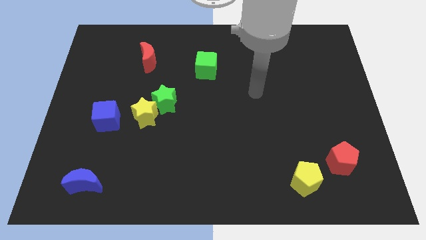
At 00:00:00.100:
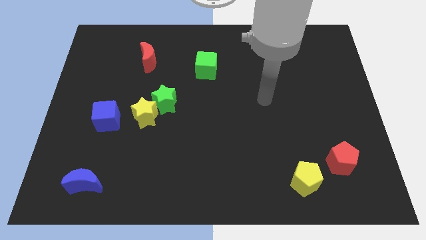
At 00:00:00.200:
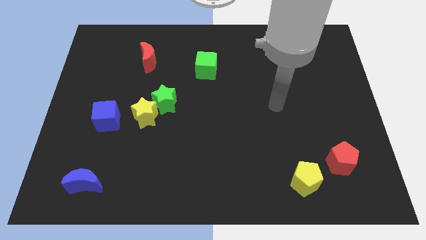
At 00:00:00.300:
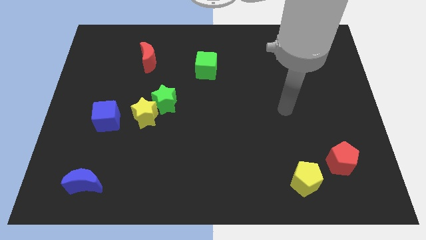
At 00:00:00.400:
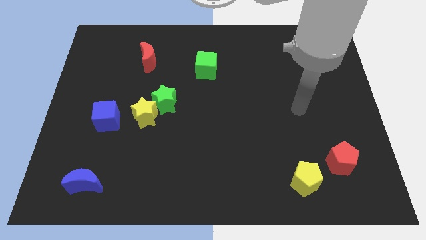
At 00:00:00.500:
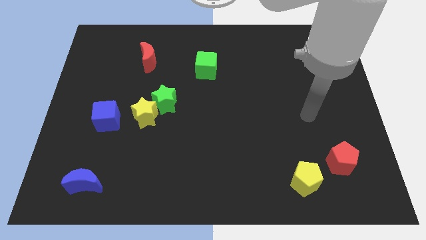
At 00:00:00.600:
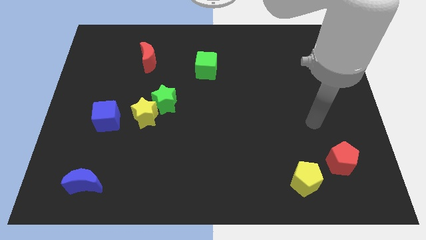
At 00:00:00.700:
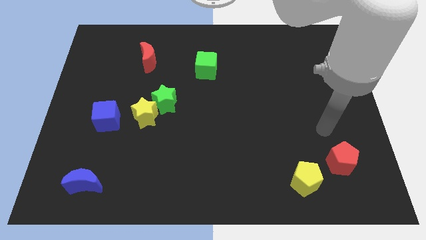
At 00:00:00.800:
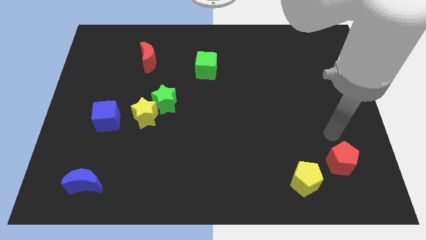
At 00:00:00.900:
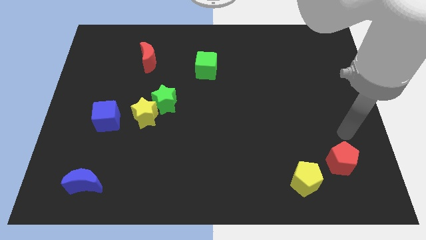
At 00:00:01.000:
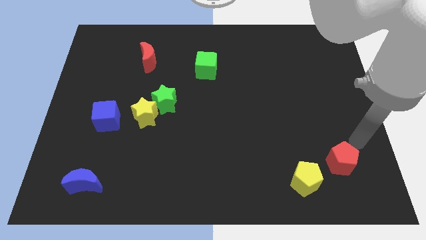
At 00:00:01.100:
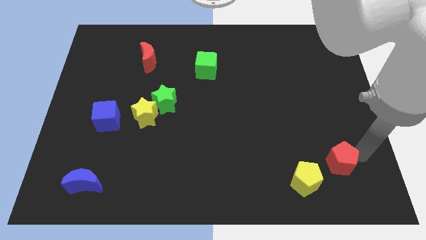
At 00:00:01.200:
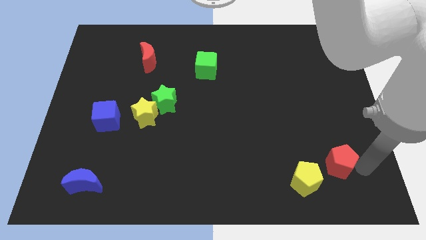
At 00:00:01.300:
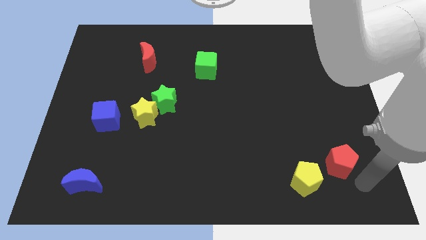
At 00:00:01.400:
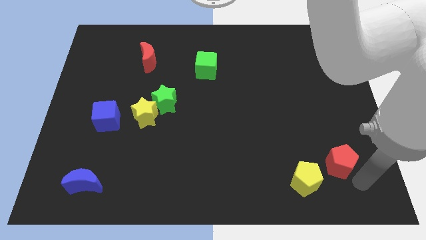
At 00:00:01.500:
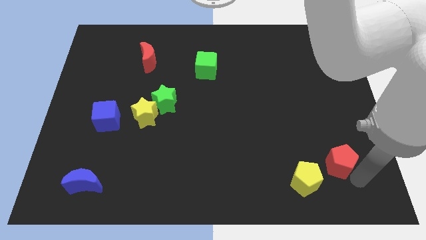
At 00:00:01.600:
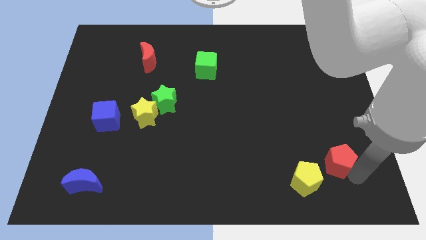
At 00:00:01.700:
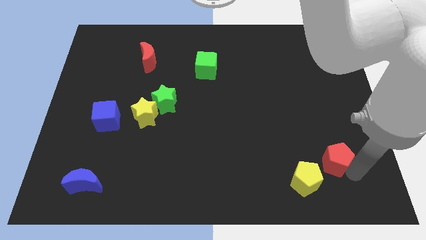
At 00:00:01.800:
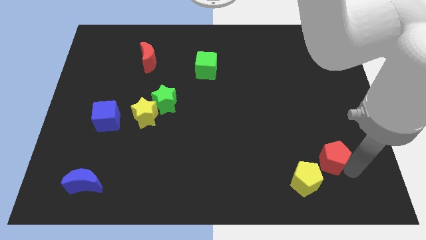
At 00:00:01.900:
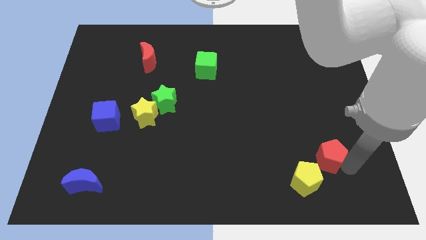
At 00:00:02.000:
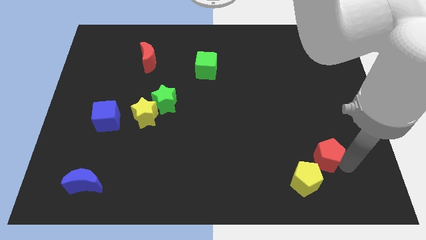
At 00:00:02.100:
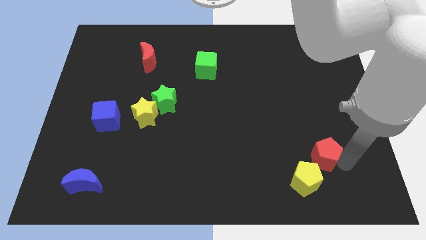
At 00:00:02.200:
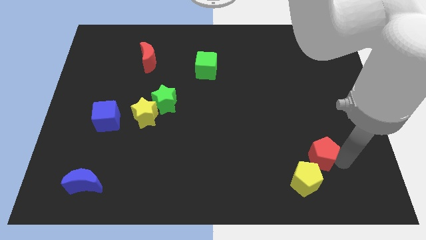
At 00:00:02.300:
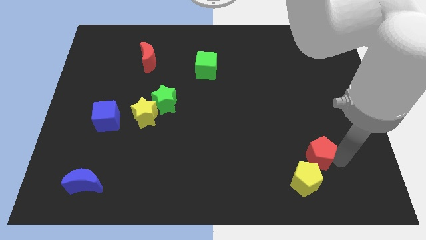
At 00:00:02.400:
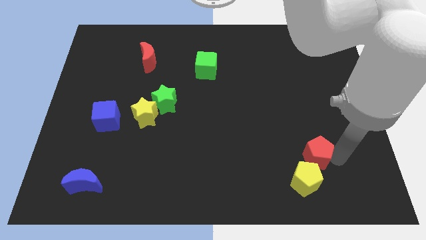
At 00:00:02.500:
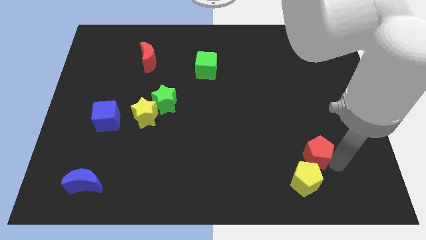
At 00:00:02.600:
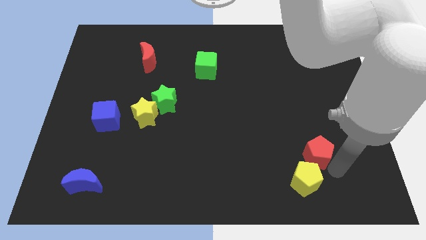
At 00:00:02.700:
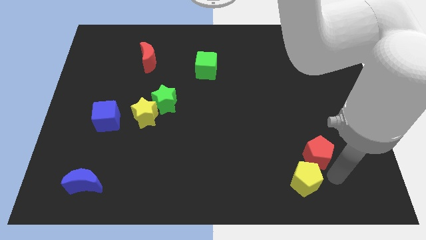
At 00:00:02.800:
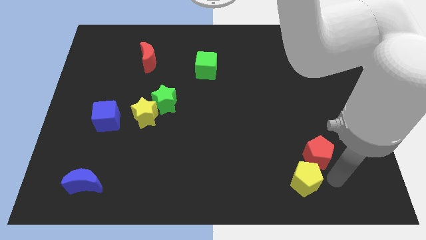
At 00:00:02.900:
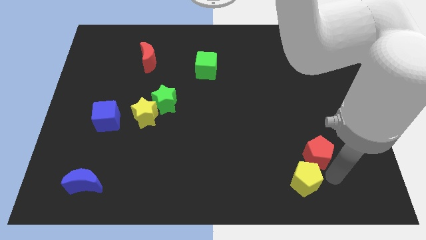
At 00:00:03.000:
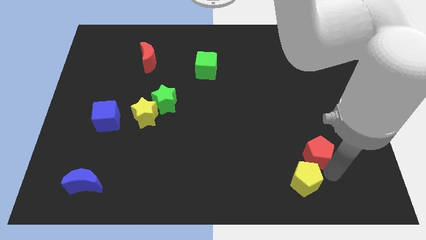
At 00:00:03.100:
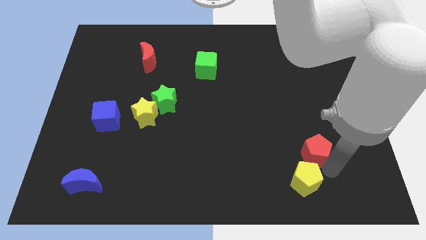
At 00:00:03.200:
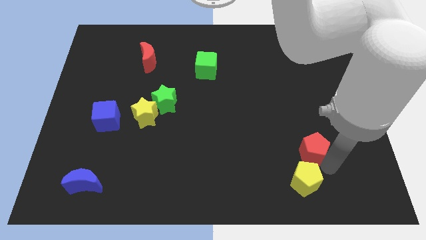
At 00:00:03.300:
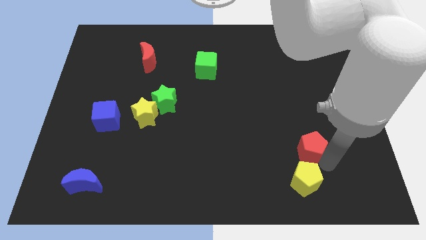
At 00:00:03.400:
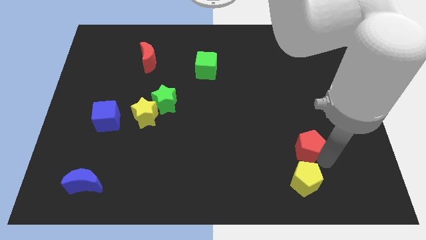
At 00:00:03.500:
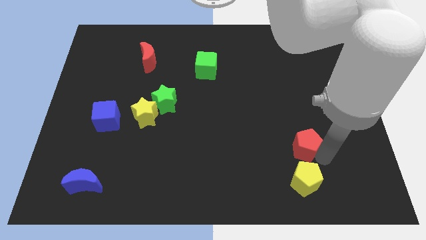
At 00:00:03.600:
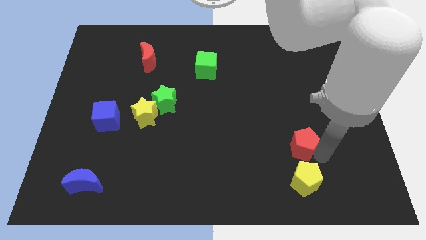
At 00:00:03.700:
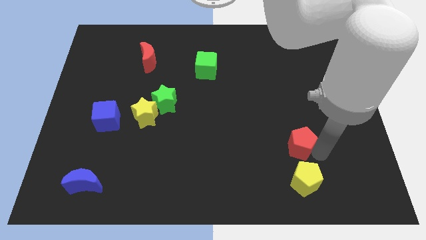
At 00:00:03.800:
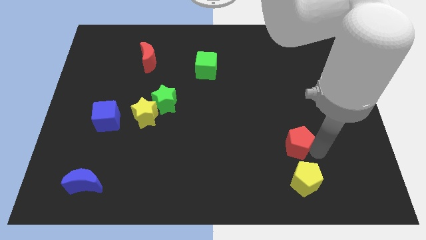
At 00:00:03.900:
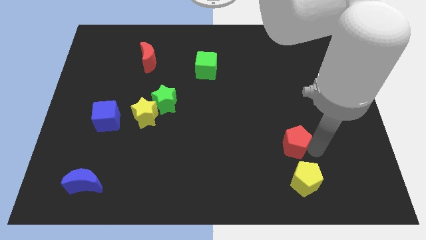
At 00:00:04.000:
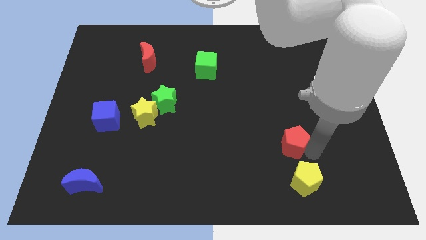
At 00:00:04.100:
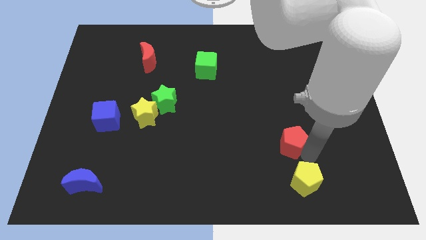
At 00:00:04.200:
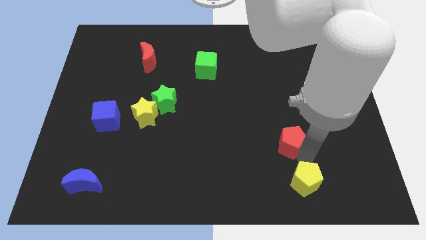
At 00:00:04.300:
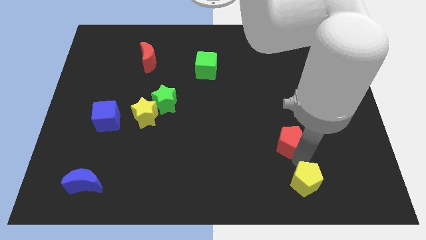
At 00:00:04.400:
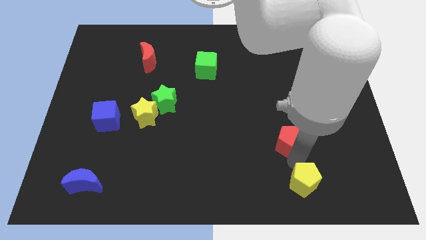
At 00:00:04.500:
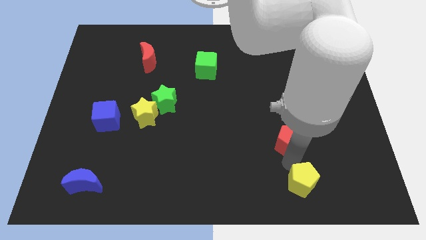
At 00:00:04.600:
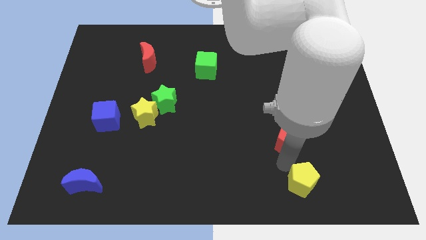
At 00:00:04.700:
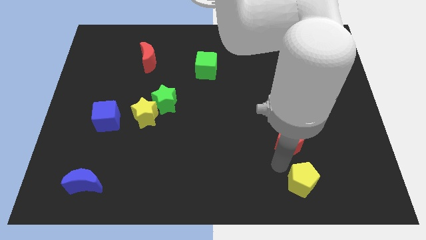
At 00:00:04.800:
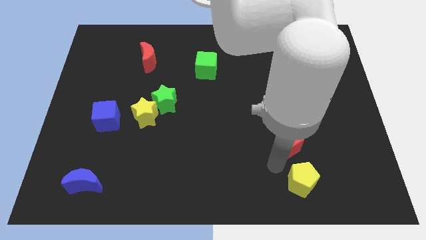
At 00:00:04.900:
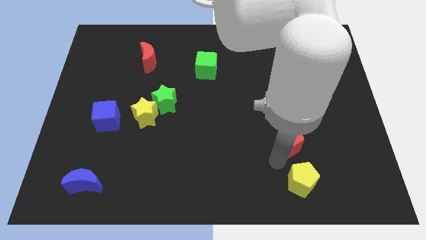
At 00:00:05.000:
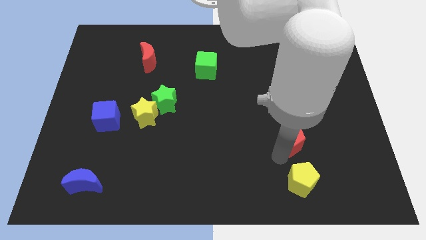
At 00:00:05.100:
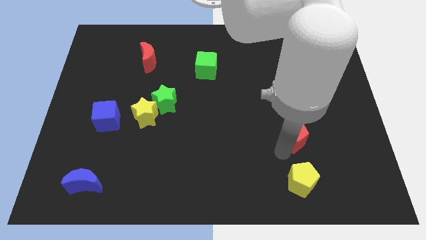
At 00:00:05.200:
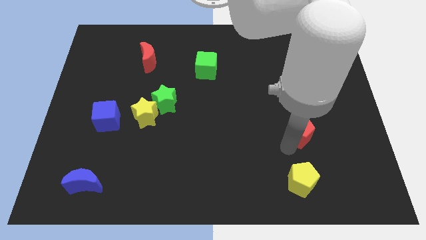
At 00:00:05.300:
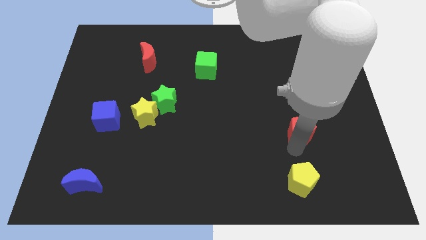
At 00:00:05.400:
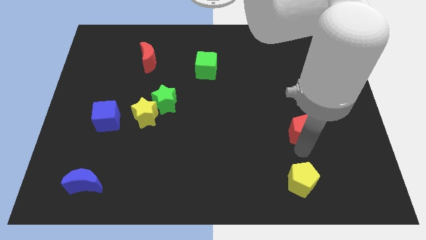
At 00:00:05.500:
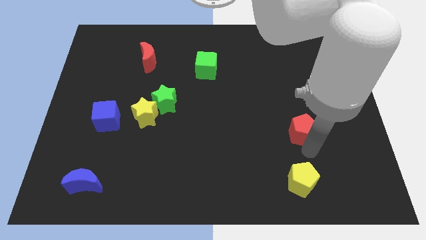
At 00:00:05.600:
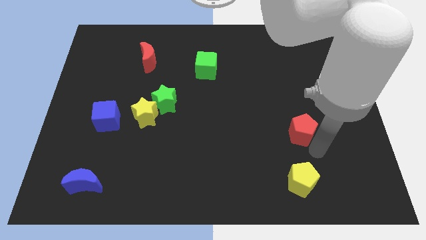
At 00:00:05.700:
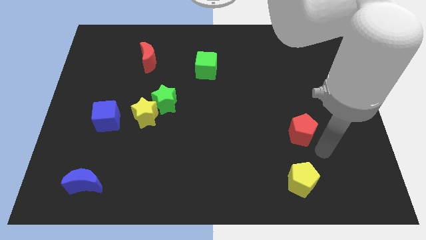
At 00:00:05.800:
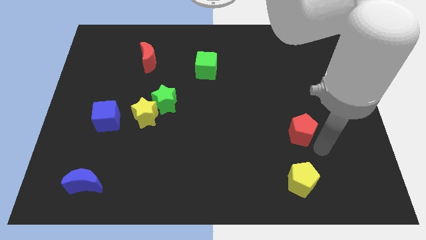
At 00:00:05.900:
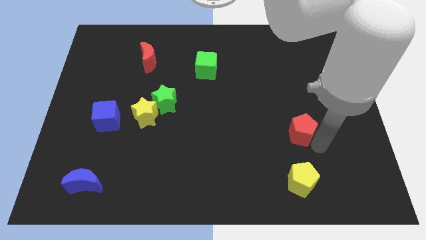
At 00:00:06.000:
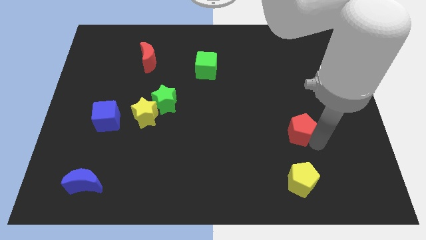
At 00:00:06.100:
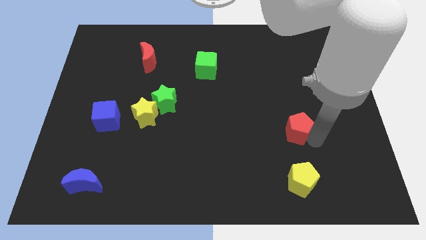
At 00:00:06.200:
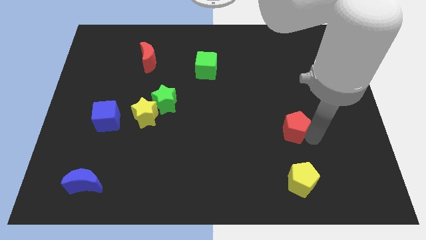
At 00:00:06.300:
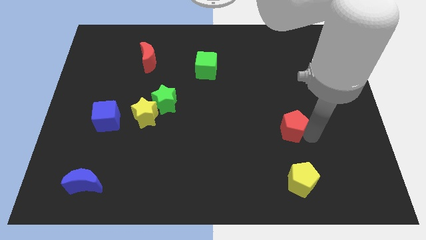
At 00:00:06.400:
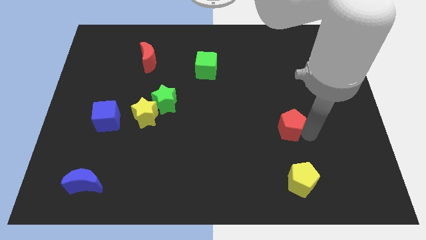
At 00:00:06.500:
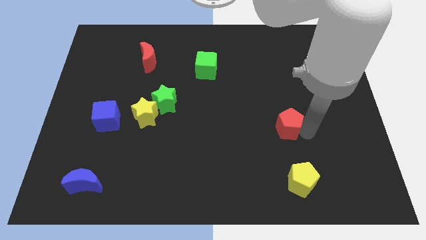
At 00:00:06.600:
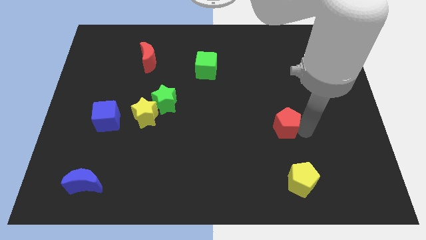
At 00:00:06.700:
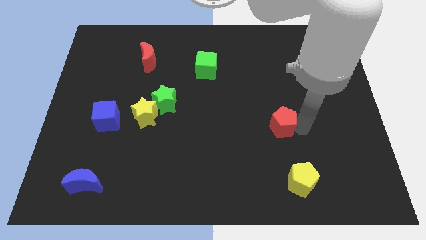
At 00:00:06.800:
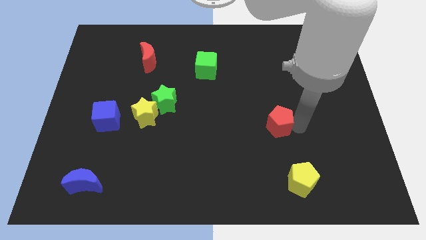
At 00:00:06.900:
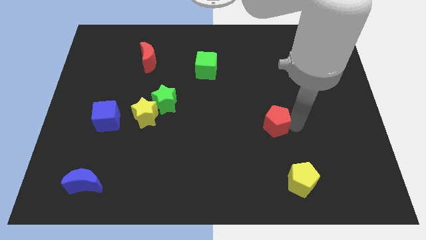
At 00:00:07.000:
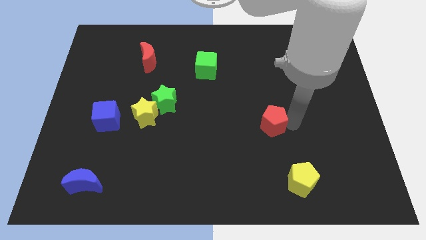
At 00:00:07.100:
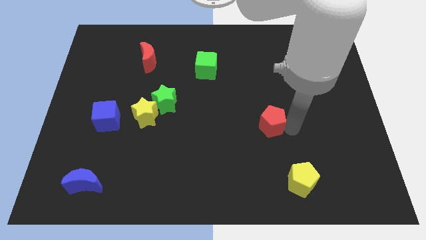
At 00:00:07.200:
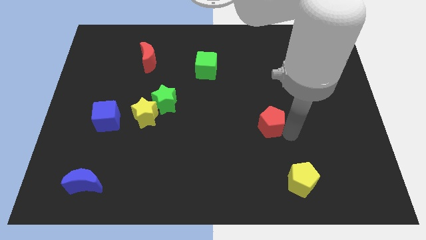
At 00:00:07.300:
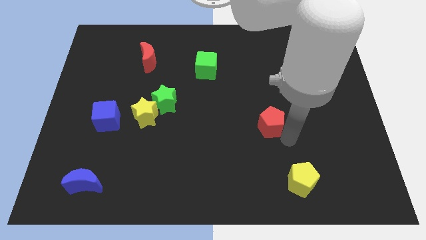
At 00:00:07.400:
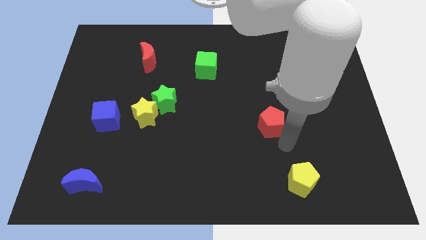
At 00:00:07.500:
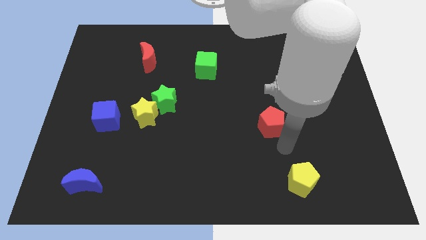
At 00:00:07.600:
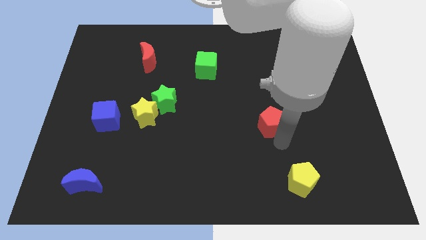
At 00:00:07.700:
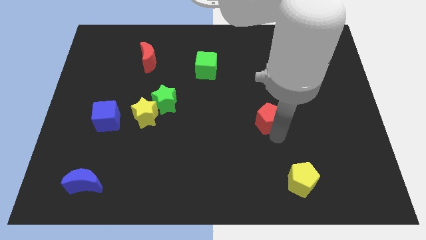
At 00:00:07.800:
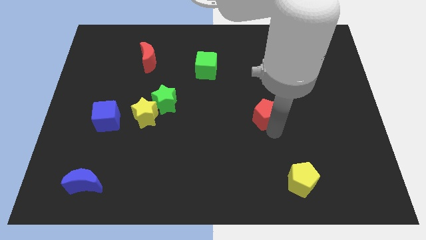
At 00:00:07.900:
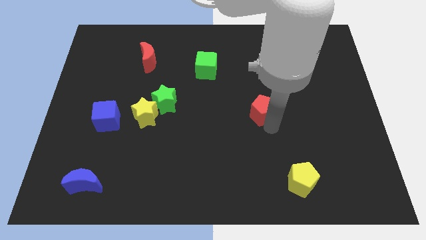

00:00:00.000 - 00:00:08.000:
slide the red pentagon upwards and left
